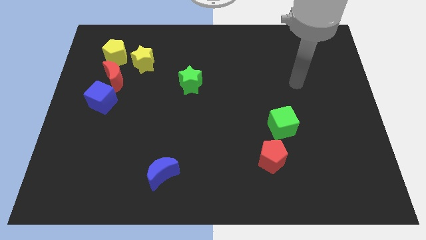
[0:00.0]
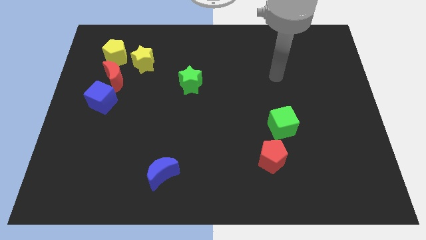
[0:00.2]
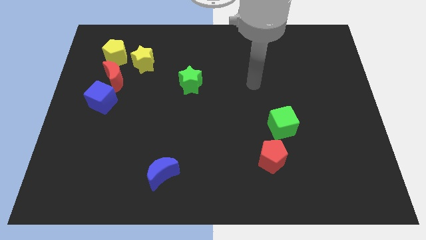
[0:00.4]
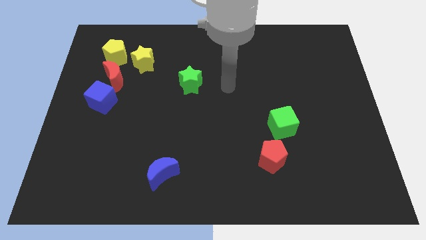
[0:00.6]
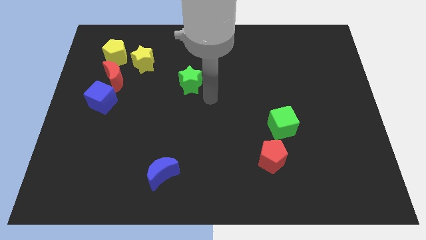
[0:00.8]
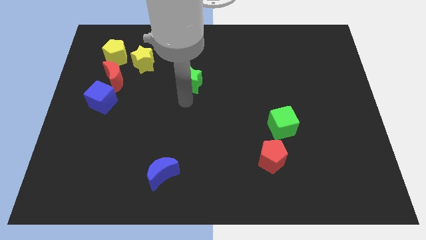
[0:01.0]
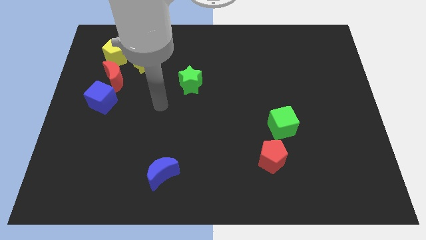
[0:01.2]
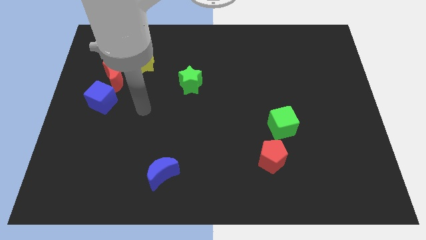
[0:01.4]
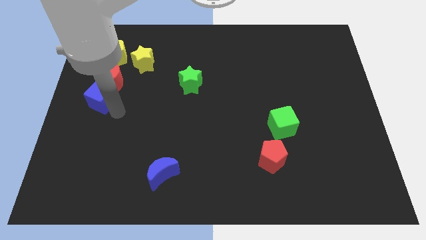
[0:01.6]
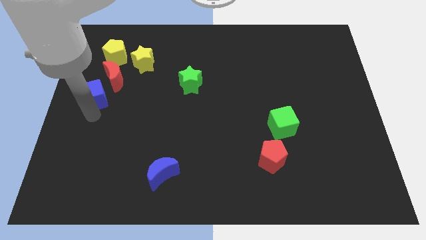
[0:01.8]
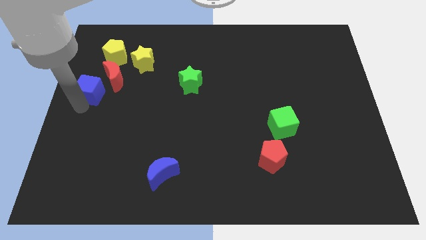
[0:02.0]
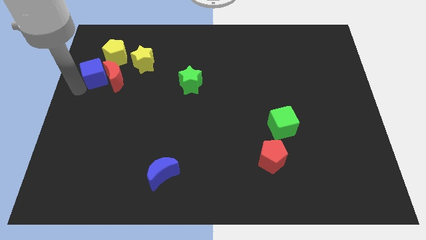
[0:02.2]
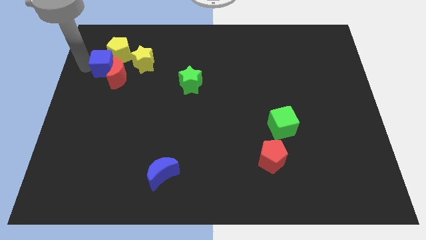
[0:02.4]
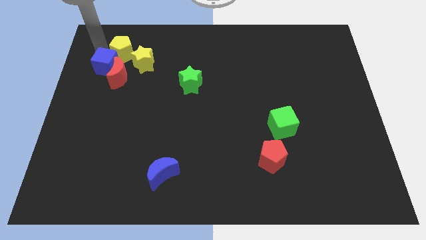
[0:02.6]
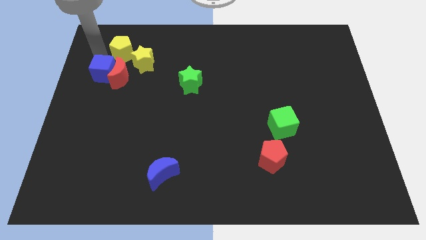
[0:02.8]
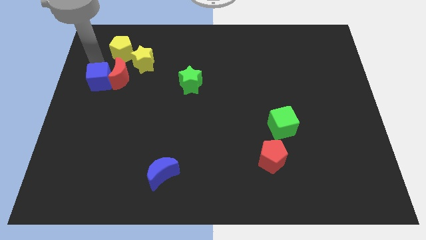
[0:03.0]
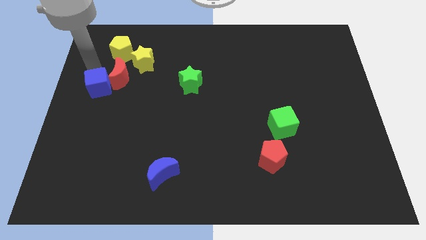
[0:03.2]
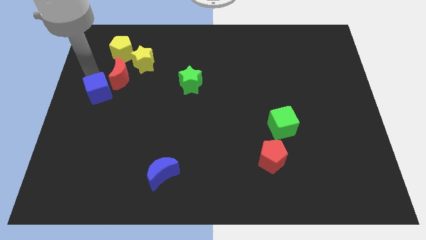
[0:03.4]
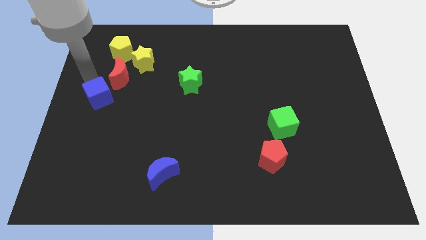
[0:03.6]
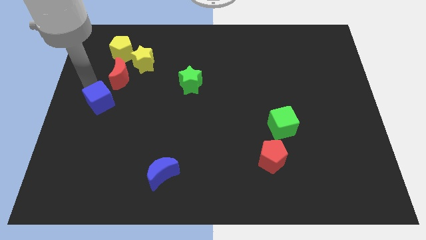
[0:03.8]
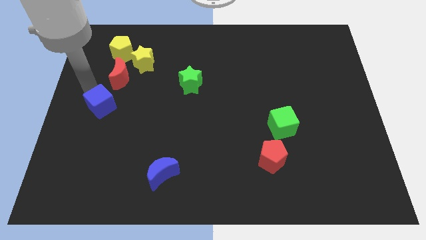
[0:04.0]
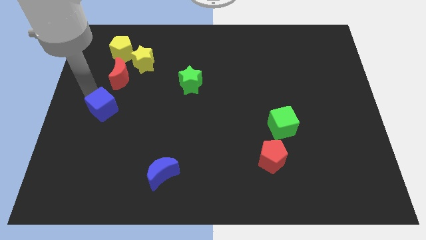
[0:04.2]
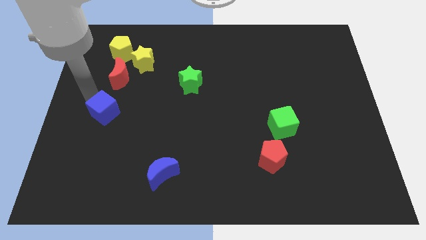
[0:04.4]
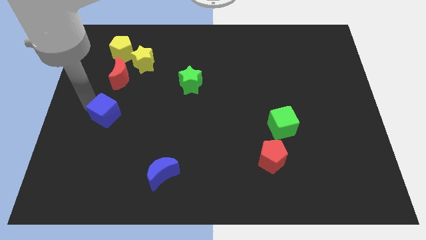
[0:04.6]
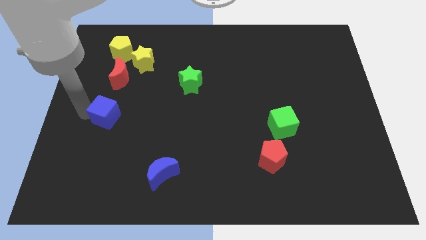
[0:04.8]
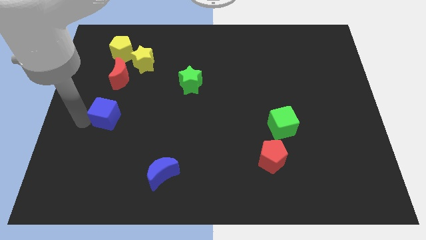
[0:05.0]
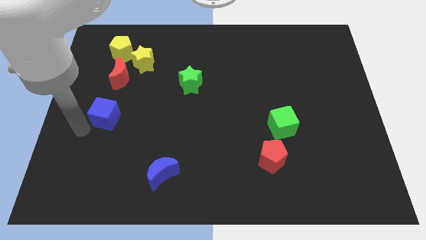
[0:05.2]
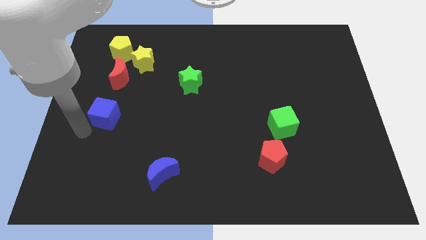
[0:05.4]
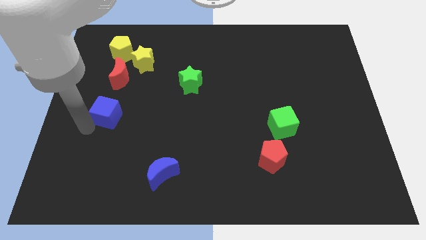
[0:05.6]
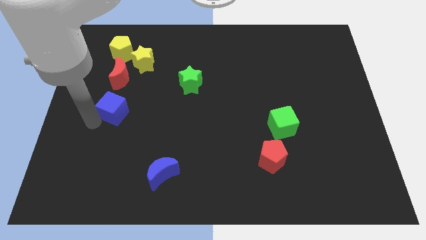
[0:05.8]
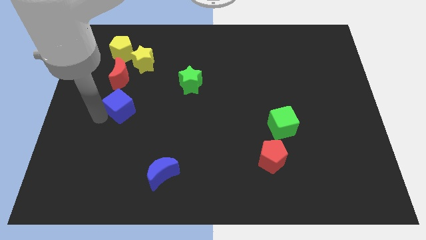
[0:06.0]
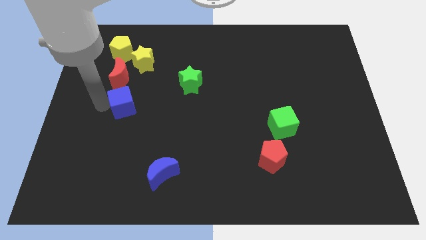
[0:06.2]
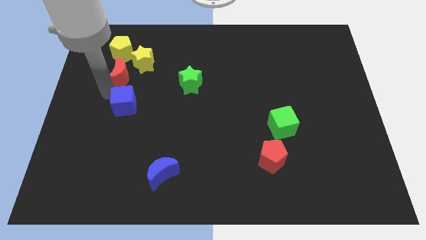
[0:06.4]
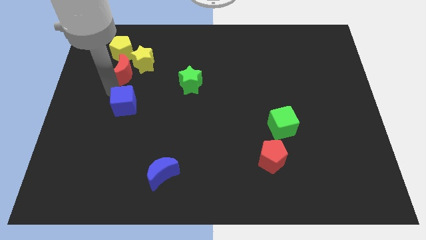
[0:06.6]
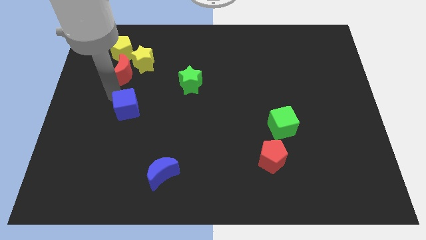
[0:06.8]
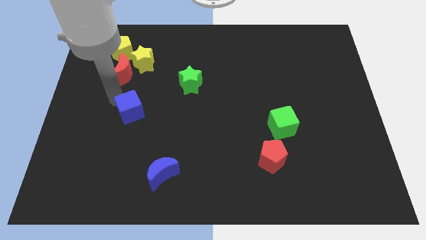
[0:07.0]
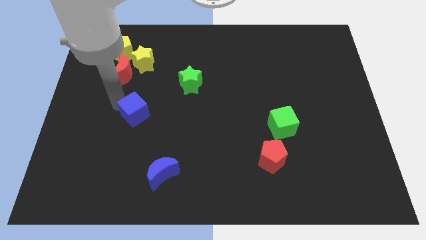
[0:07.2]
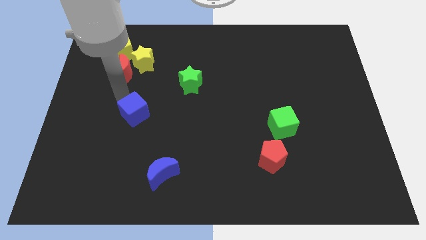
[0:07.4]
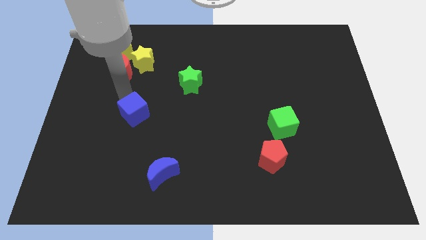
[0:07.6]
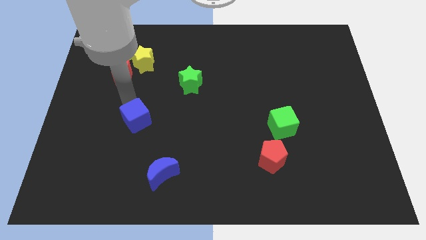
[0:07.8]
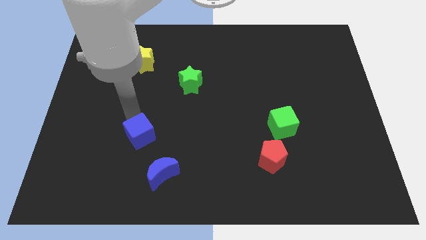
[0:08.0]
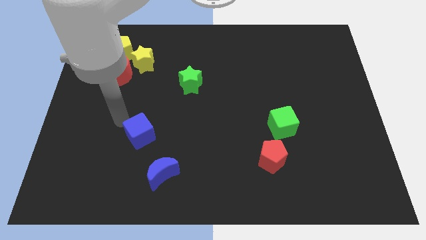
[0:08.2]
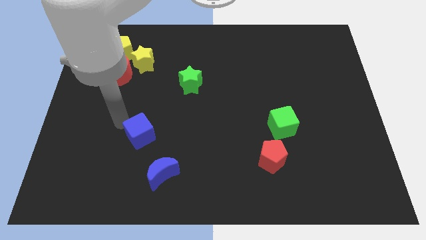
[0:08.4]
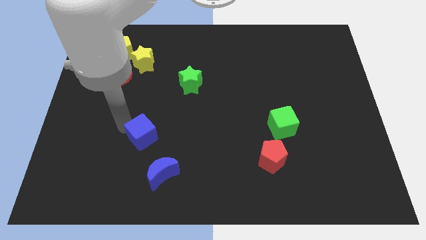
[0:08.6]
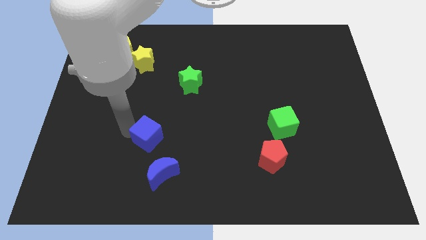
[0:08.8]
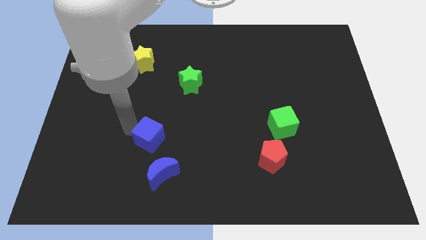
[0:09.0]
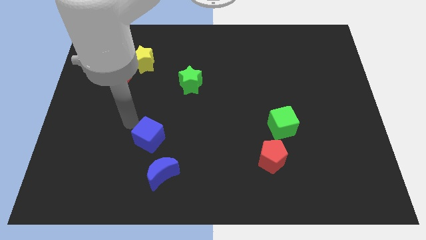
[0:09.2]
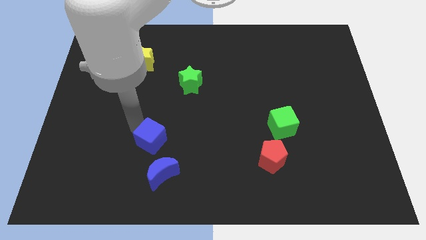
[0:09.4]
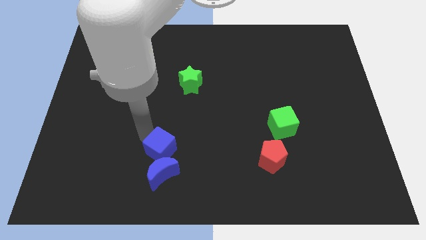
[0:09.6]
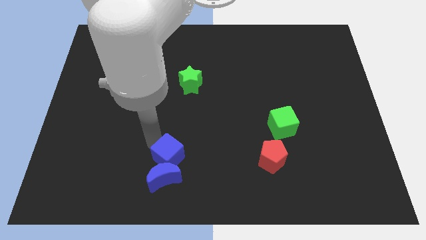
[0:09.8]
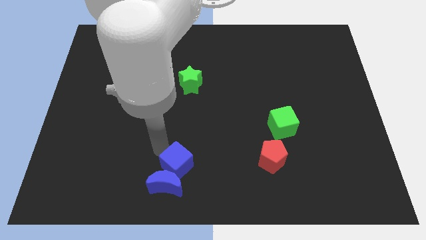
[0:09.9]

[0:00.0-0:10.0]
move the blue cube to the bottom

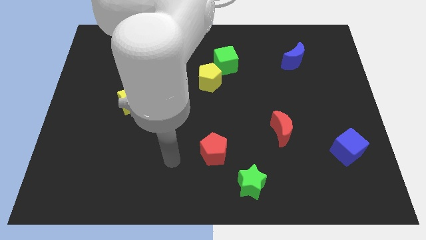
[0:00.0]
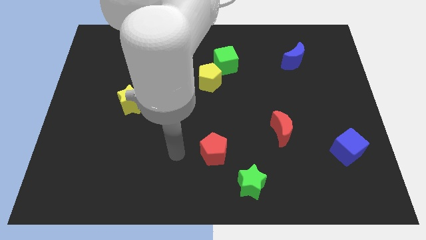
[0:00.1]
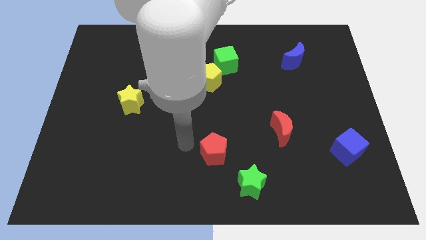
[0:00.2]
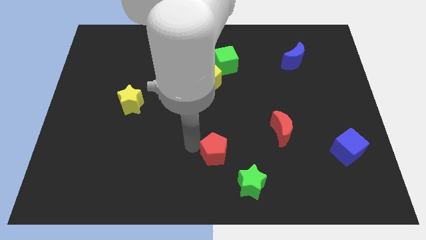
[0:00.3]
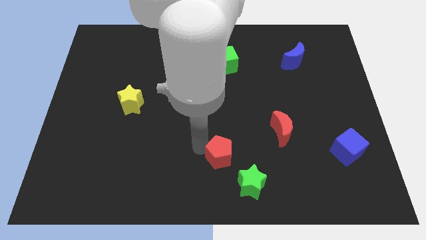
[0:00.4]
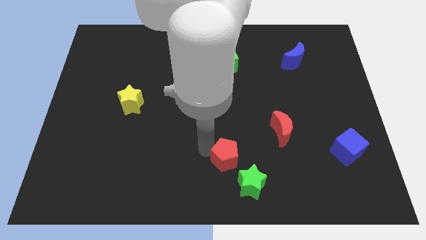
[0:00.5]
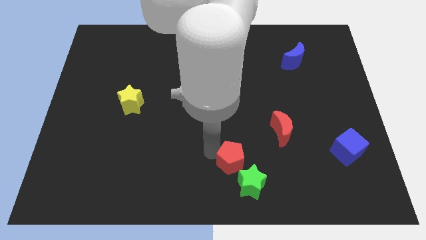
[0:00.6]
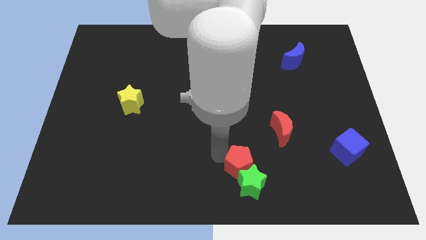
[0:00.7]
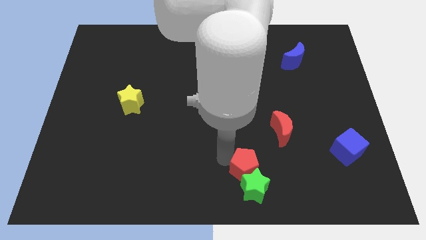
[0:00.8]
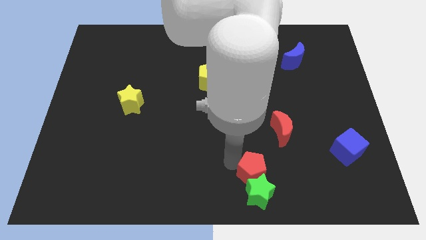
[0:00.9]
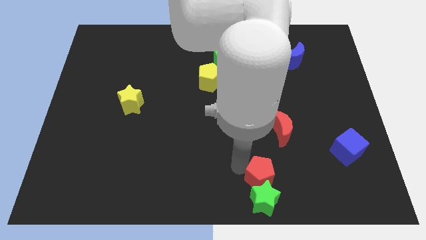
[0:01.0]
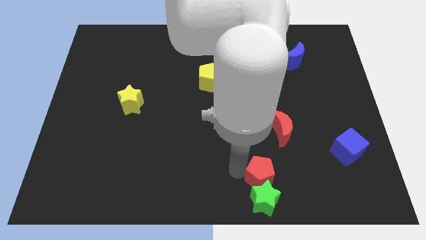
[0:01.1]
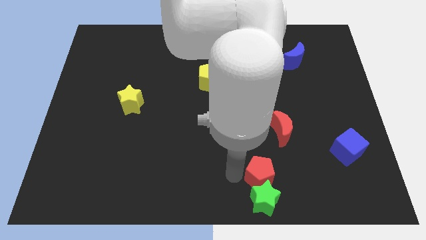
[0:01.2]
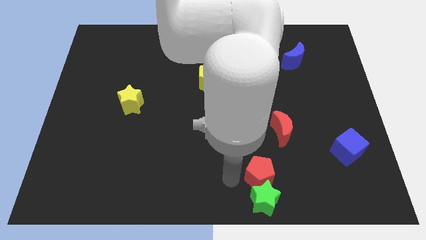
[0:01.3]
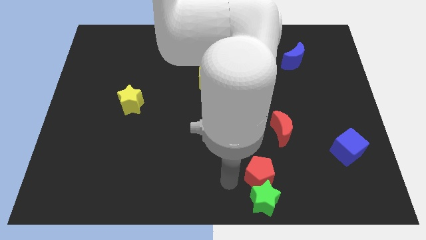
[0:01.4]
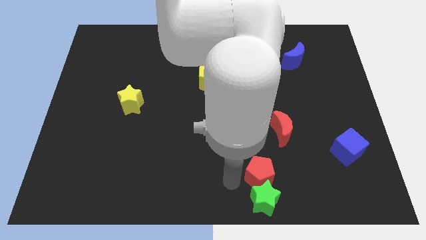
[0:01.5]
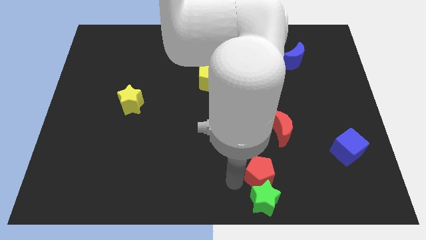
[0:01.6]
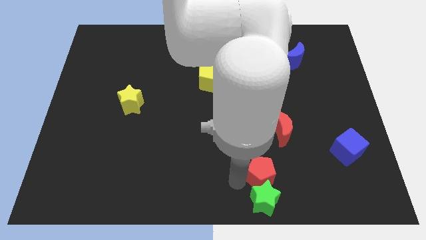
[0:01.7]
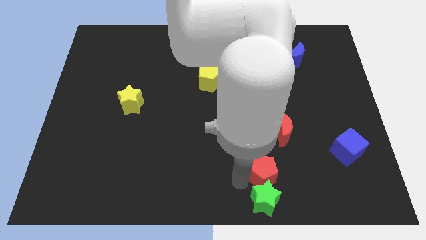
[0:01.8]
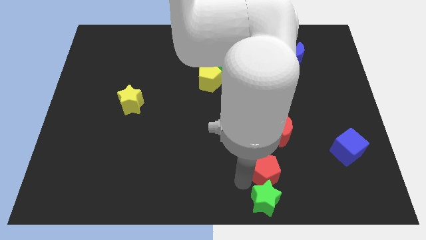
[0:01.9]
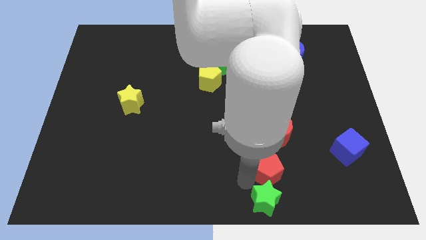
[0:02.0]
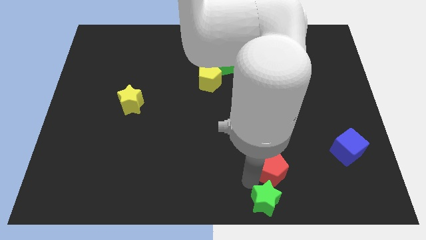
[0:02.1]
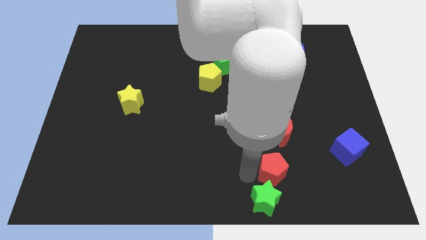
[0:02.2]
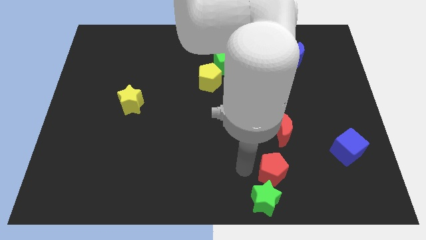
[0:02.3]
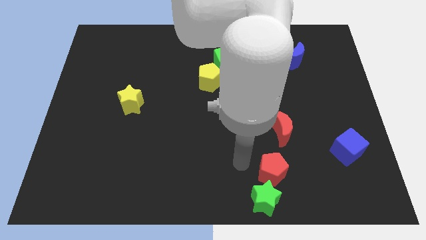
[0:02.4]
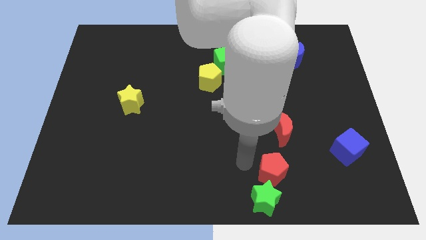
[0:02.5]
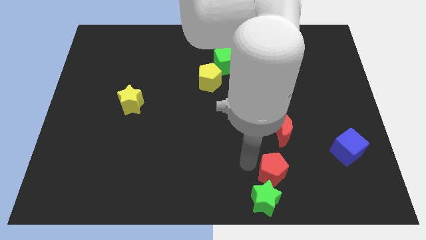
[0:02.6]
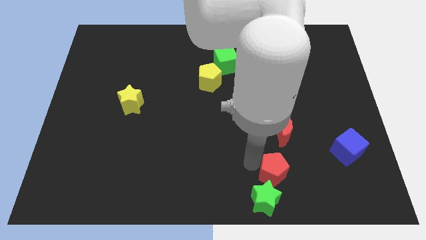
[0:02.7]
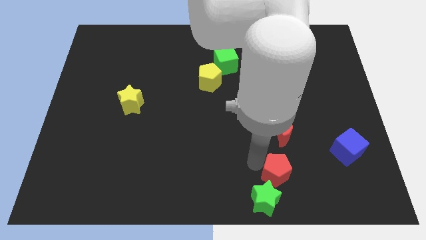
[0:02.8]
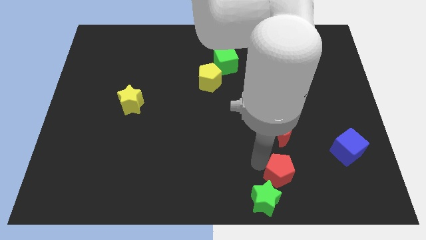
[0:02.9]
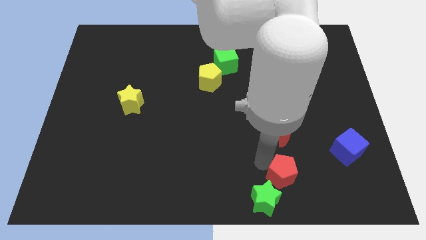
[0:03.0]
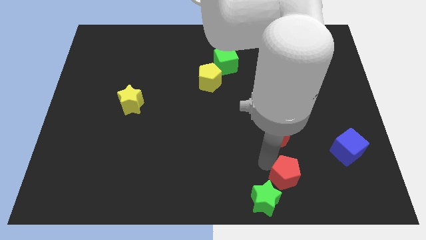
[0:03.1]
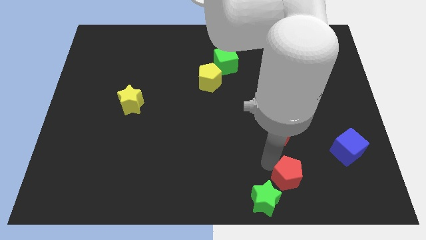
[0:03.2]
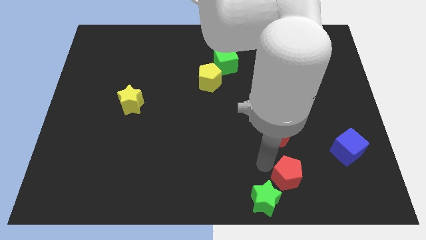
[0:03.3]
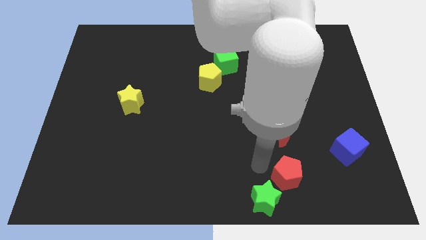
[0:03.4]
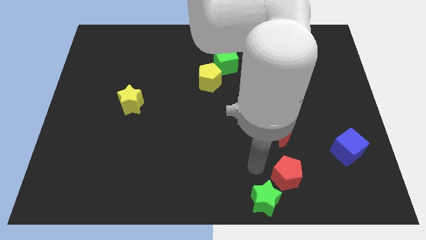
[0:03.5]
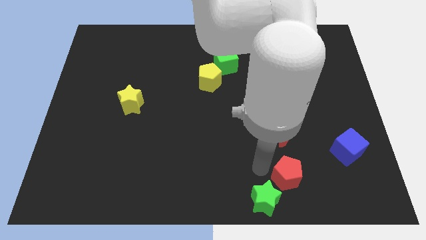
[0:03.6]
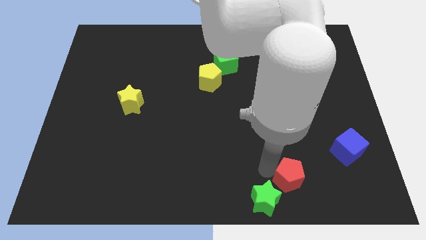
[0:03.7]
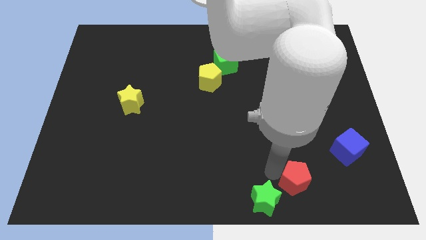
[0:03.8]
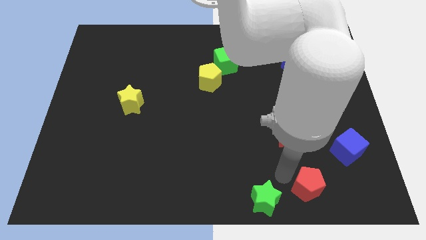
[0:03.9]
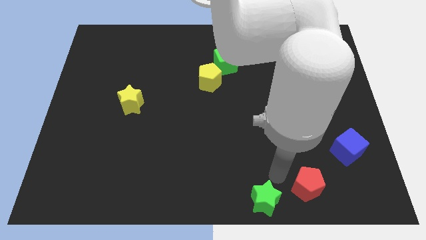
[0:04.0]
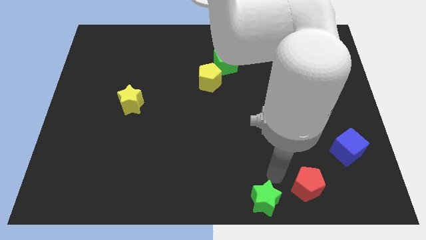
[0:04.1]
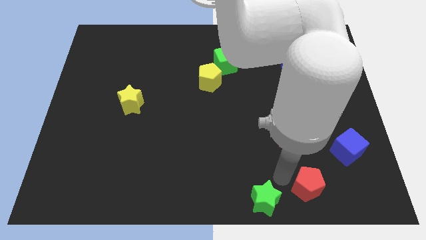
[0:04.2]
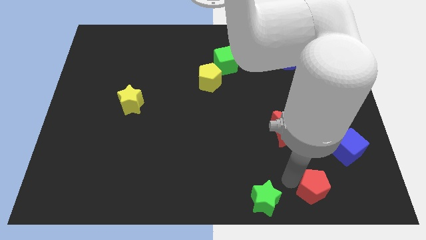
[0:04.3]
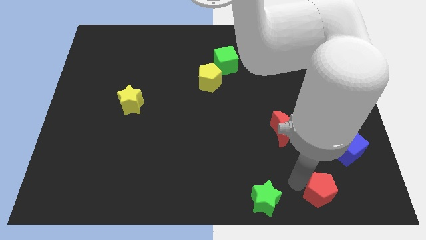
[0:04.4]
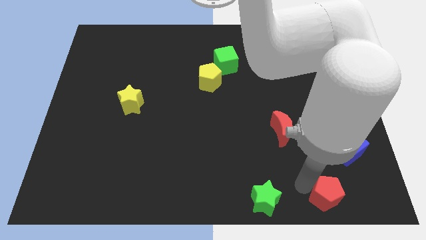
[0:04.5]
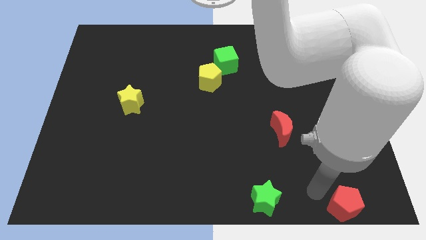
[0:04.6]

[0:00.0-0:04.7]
push the red pentagon to the lower right corner
